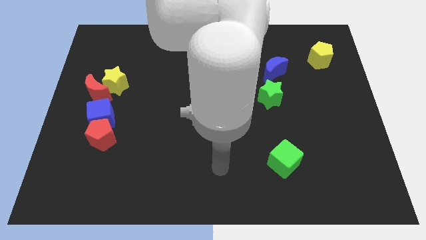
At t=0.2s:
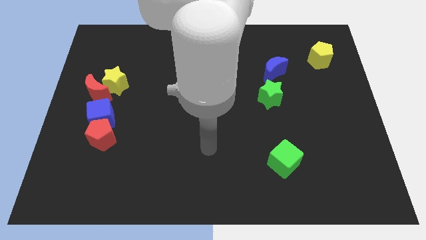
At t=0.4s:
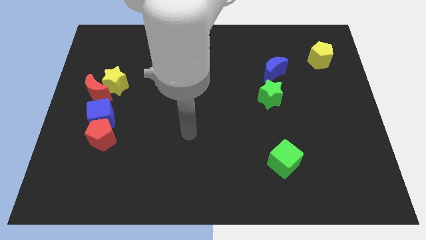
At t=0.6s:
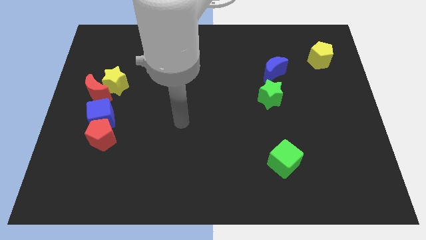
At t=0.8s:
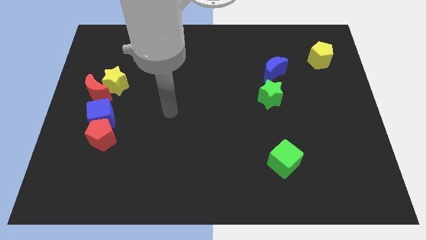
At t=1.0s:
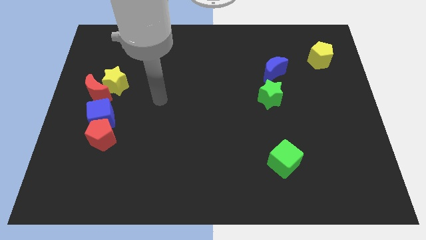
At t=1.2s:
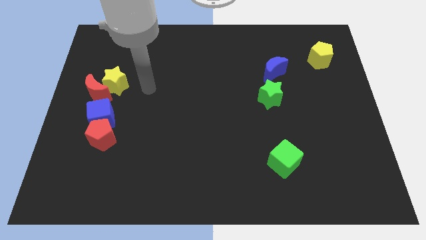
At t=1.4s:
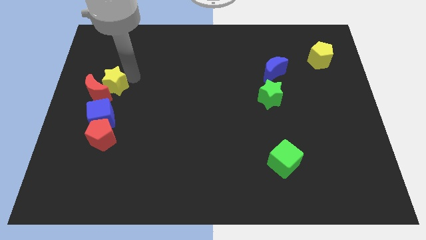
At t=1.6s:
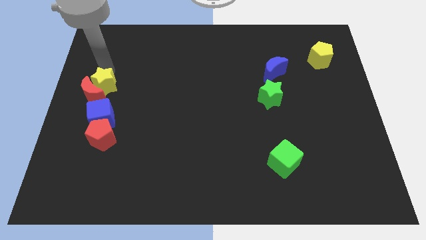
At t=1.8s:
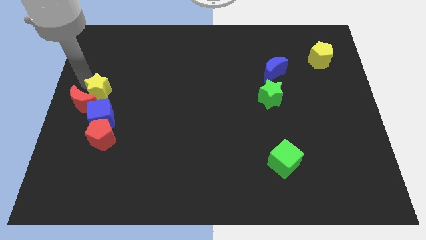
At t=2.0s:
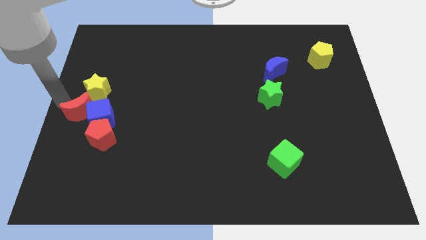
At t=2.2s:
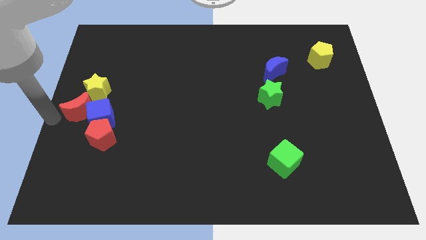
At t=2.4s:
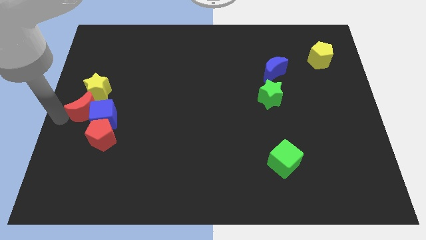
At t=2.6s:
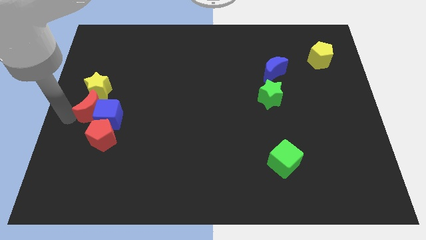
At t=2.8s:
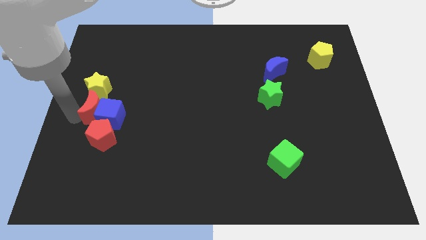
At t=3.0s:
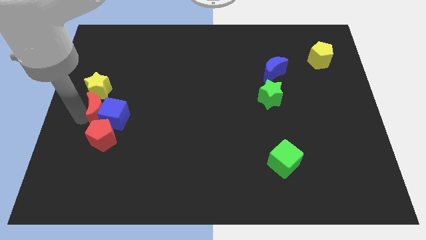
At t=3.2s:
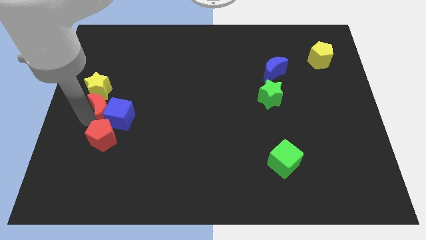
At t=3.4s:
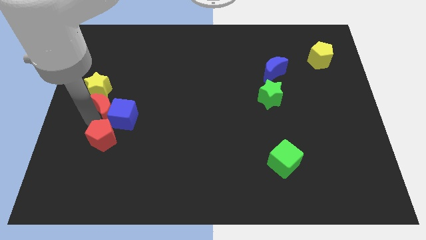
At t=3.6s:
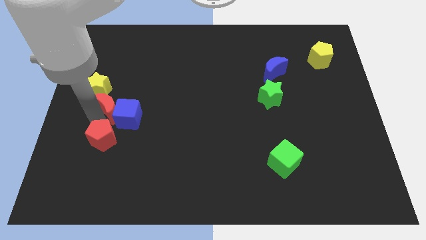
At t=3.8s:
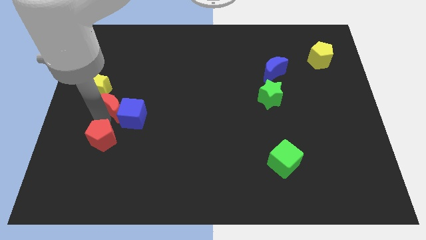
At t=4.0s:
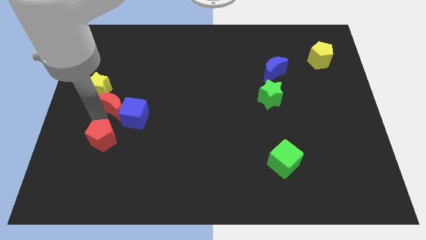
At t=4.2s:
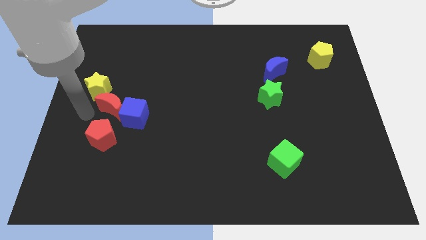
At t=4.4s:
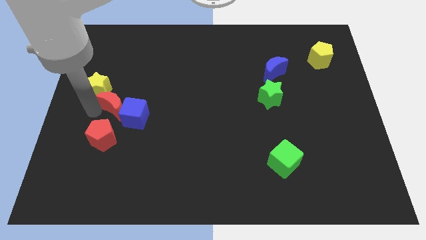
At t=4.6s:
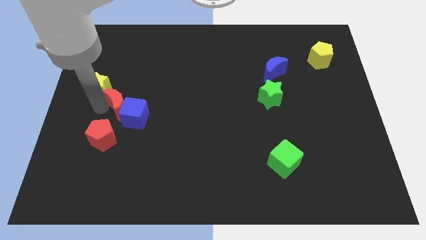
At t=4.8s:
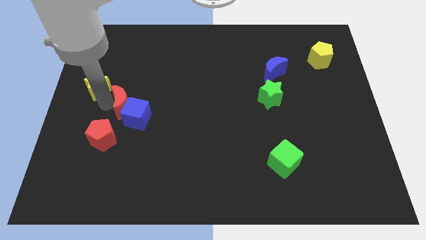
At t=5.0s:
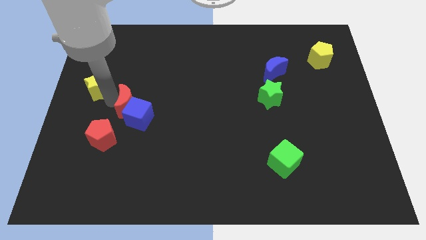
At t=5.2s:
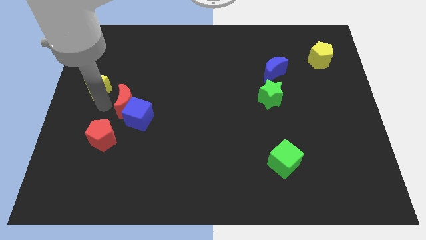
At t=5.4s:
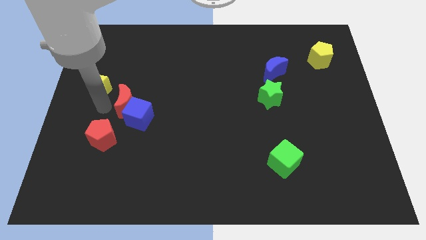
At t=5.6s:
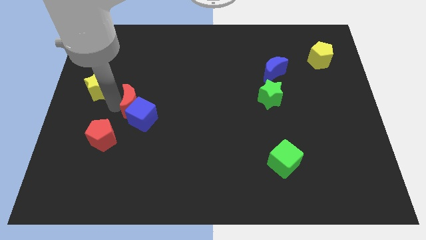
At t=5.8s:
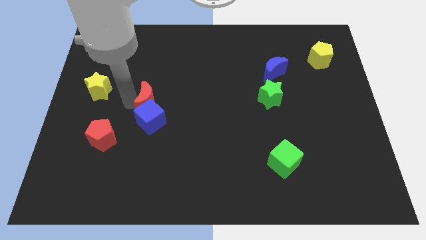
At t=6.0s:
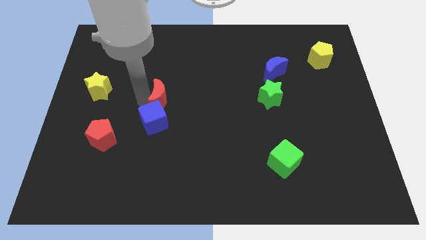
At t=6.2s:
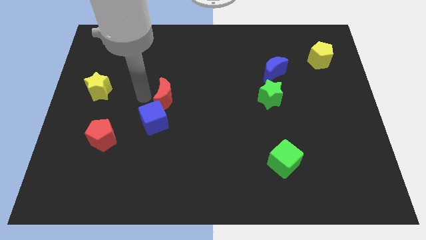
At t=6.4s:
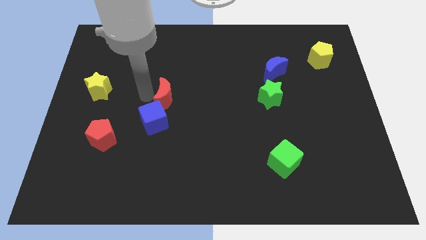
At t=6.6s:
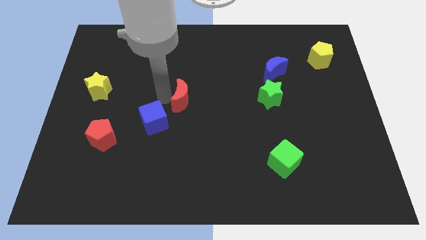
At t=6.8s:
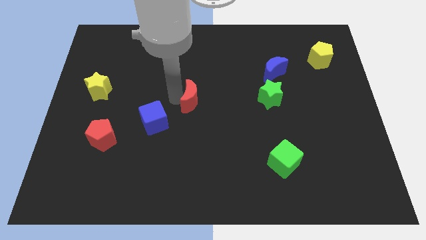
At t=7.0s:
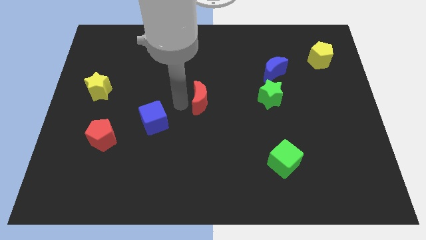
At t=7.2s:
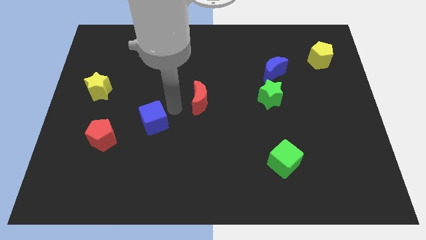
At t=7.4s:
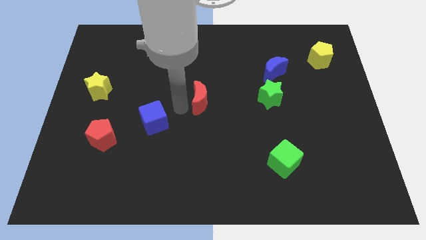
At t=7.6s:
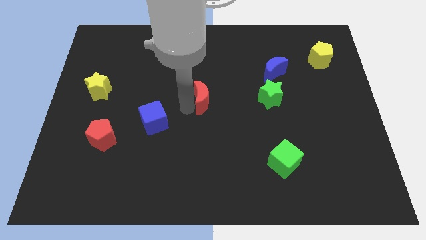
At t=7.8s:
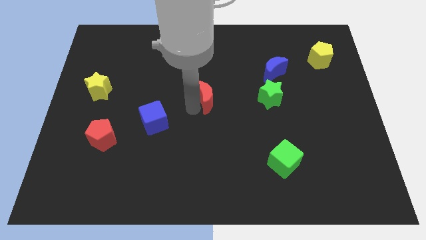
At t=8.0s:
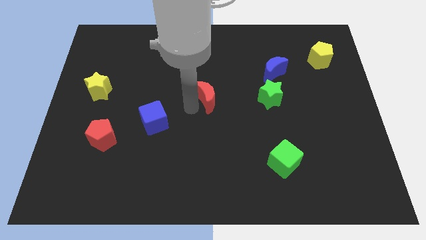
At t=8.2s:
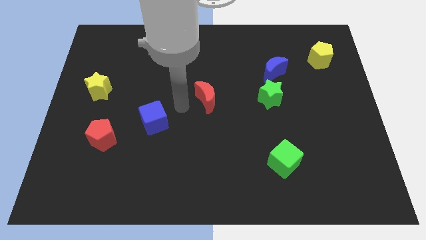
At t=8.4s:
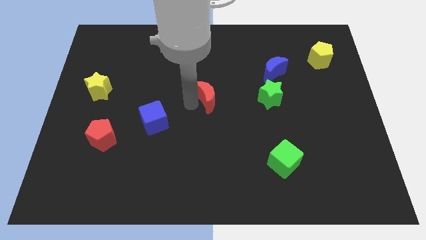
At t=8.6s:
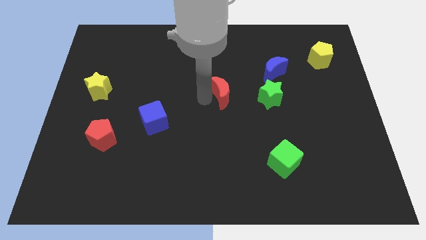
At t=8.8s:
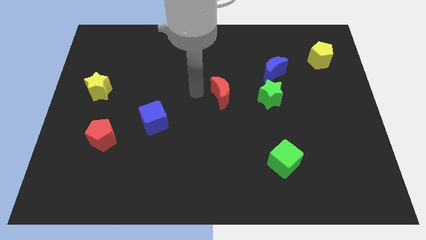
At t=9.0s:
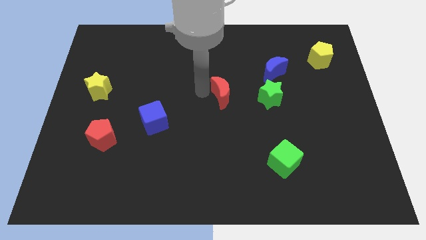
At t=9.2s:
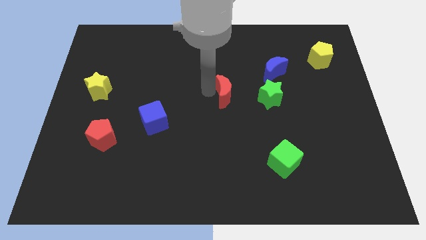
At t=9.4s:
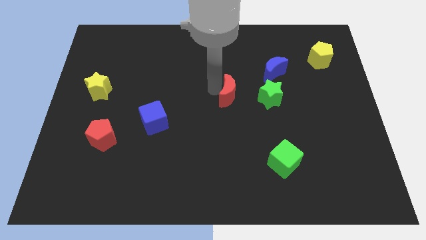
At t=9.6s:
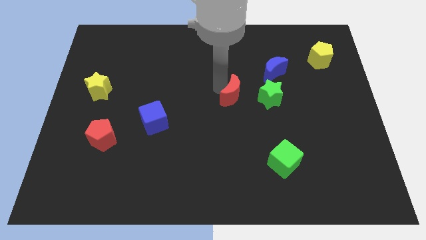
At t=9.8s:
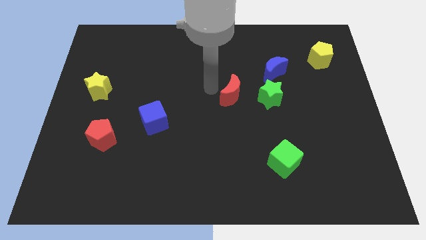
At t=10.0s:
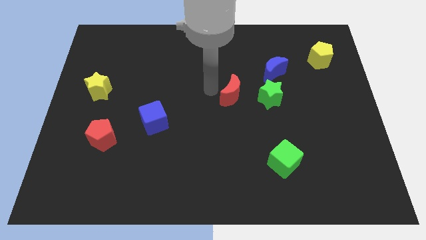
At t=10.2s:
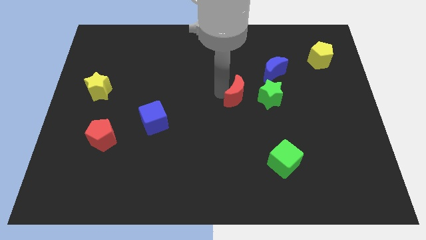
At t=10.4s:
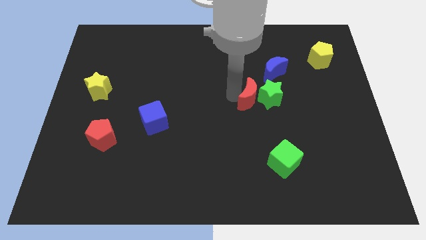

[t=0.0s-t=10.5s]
put the red moon towards the green star

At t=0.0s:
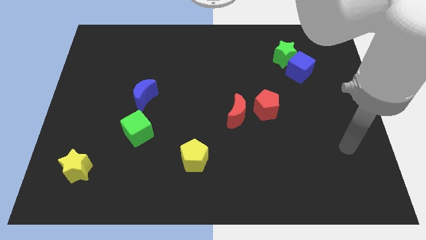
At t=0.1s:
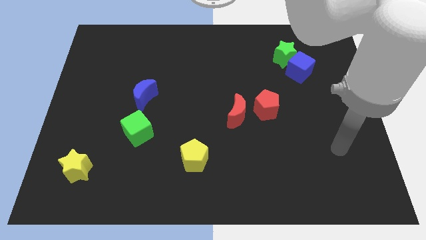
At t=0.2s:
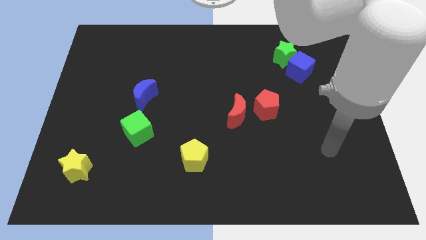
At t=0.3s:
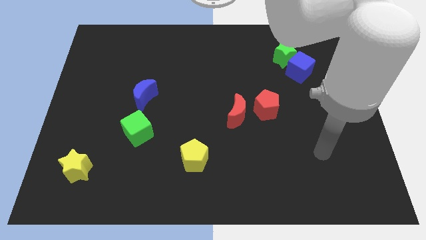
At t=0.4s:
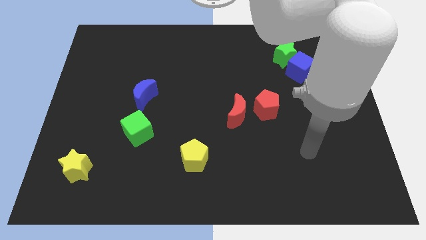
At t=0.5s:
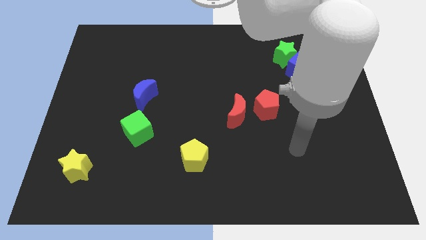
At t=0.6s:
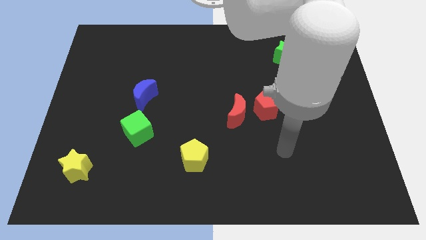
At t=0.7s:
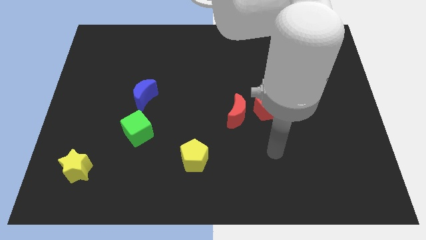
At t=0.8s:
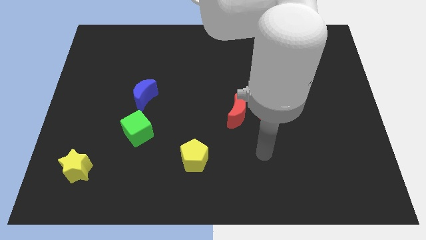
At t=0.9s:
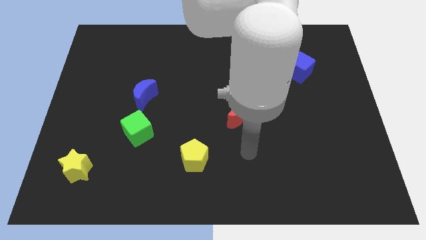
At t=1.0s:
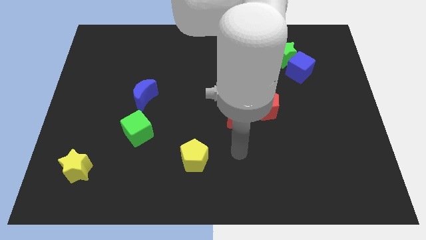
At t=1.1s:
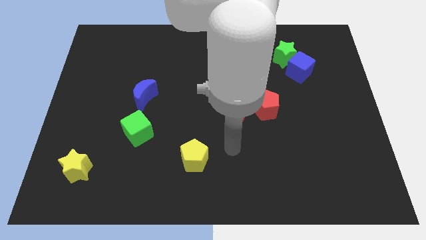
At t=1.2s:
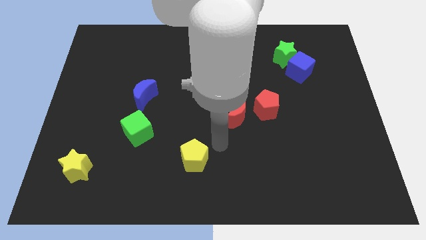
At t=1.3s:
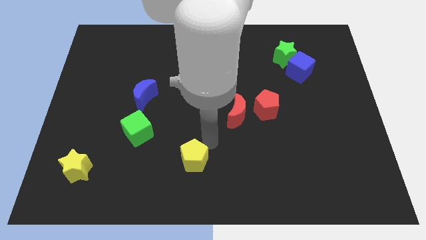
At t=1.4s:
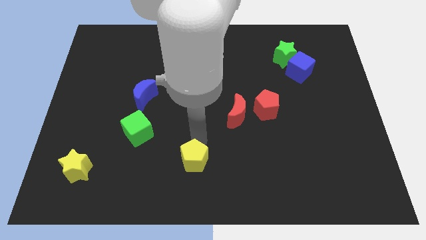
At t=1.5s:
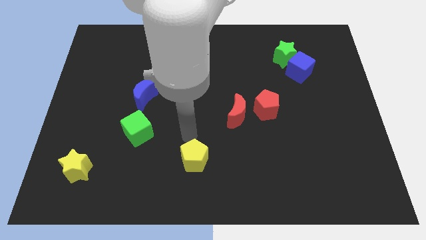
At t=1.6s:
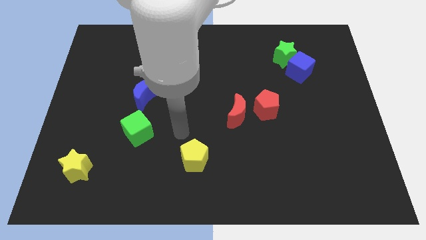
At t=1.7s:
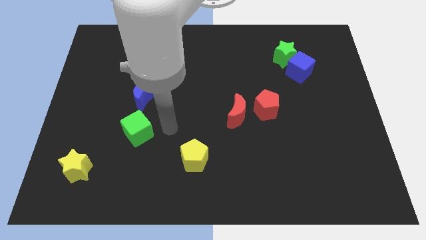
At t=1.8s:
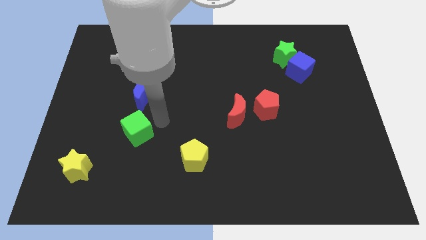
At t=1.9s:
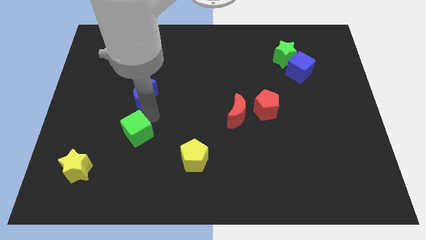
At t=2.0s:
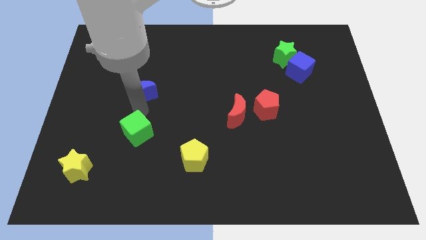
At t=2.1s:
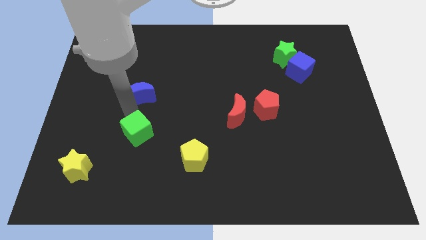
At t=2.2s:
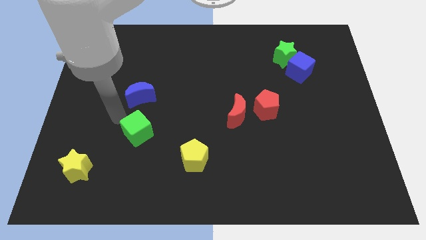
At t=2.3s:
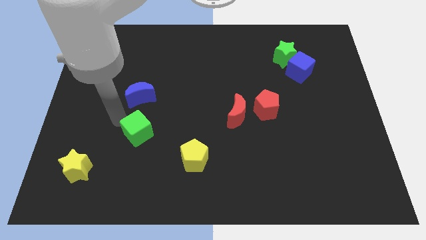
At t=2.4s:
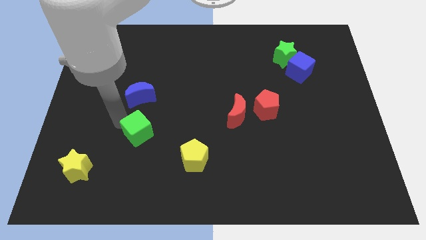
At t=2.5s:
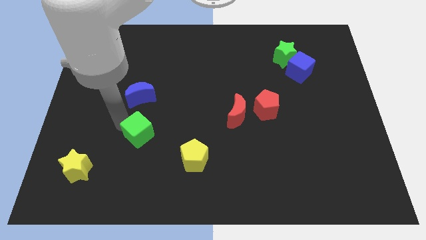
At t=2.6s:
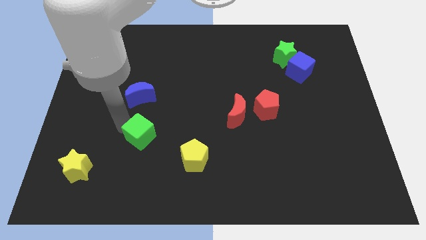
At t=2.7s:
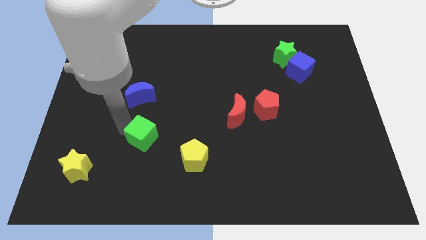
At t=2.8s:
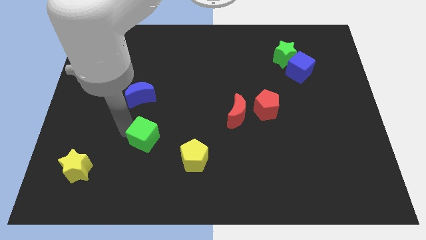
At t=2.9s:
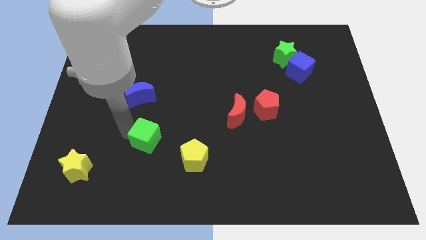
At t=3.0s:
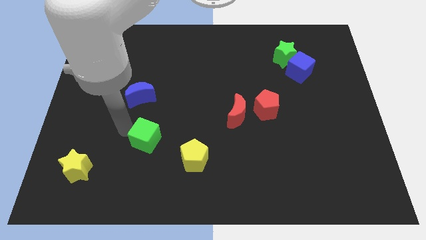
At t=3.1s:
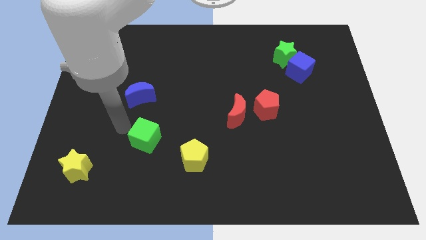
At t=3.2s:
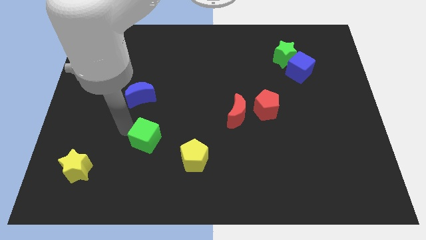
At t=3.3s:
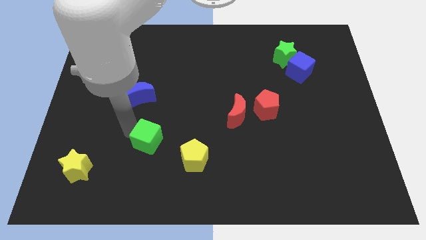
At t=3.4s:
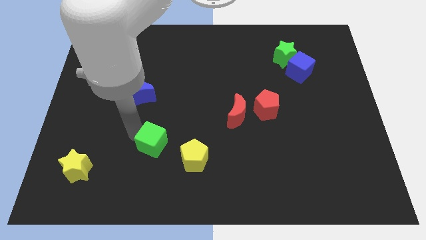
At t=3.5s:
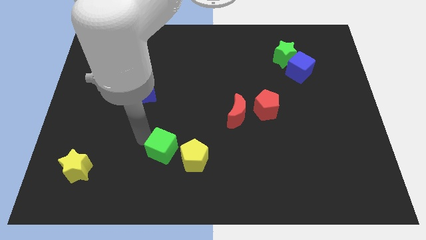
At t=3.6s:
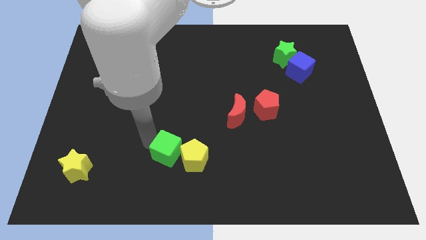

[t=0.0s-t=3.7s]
push the green cube next to the yellow pentagon
